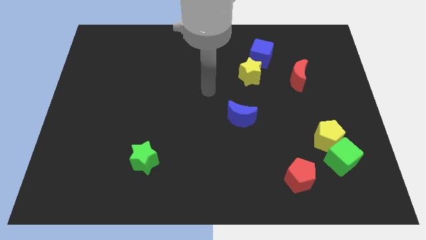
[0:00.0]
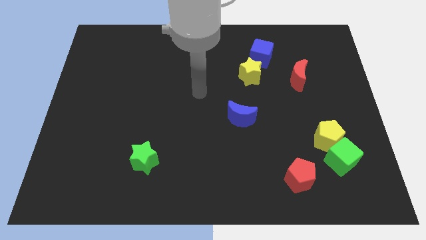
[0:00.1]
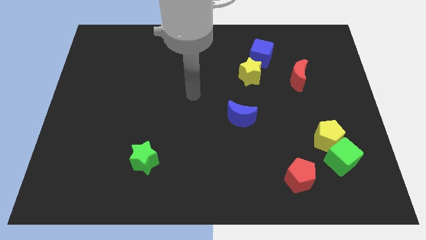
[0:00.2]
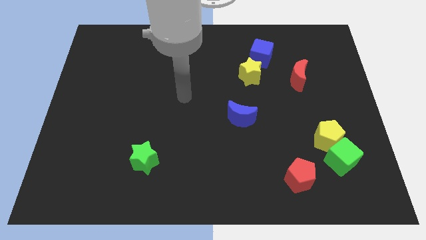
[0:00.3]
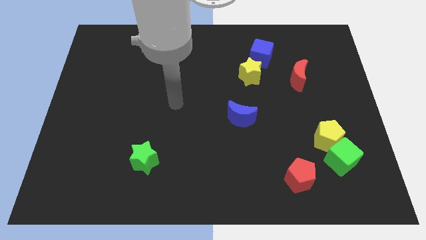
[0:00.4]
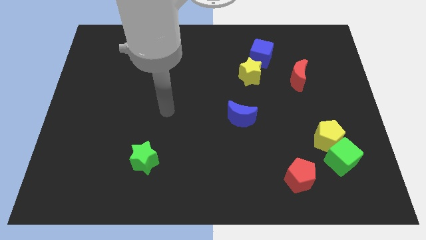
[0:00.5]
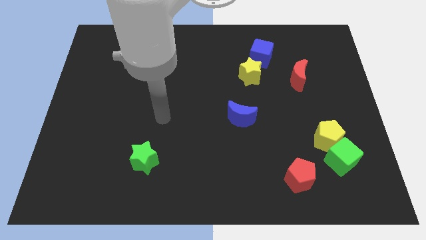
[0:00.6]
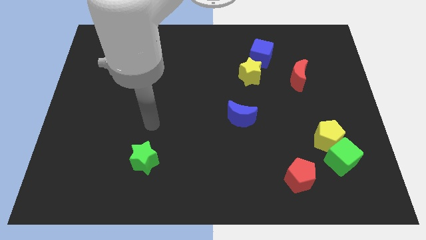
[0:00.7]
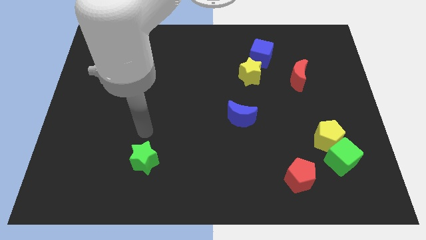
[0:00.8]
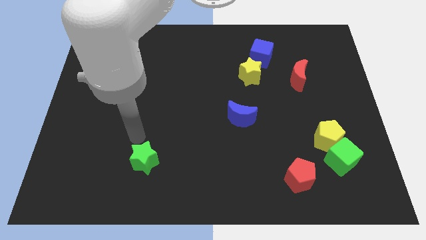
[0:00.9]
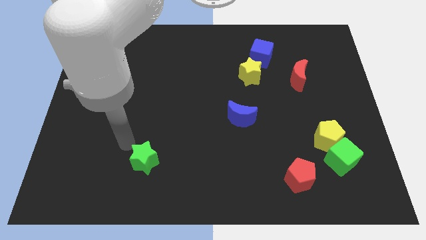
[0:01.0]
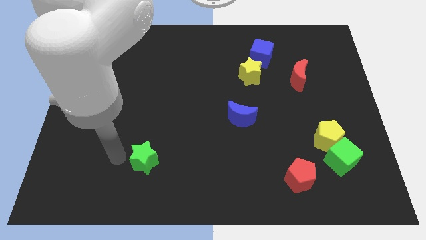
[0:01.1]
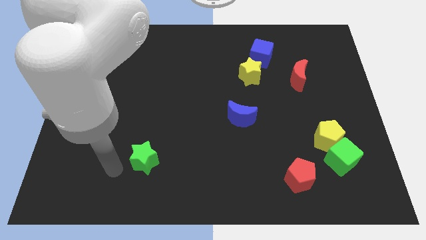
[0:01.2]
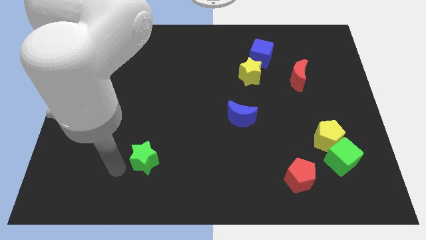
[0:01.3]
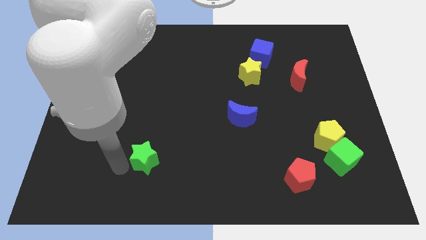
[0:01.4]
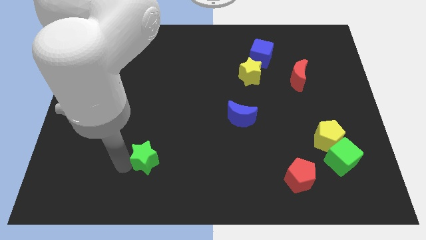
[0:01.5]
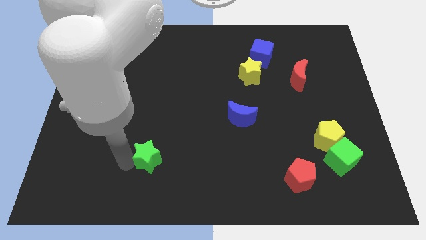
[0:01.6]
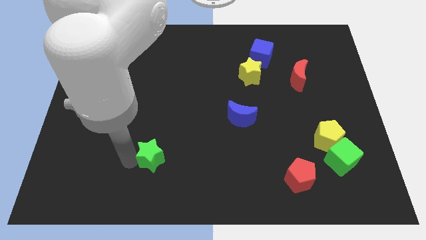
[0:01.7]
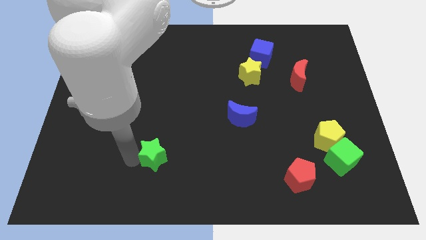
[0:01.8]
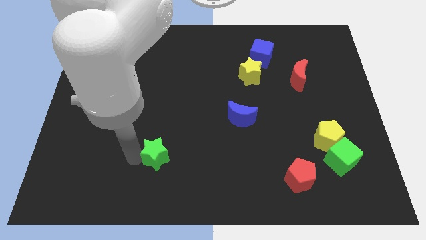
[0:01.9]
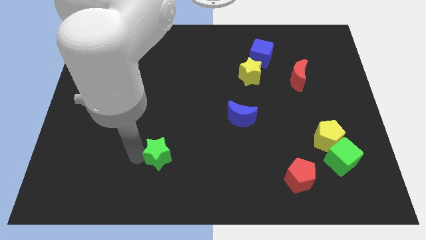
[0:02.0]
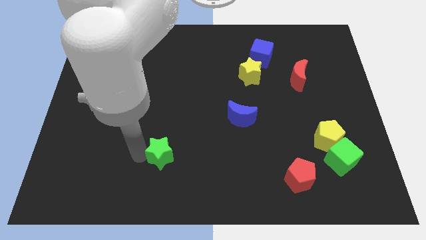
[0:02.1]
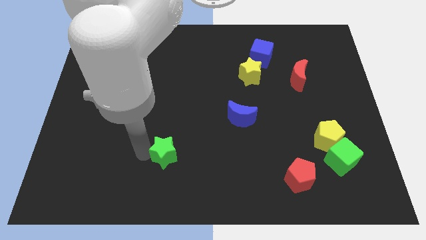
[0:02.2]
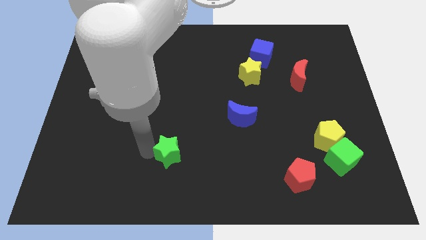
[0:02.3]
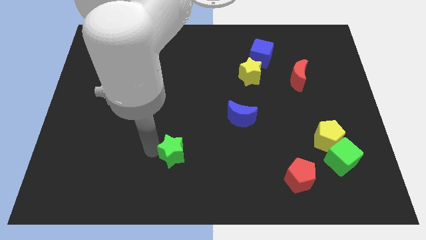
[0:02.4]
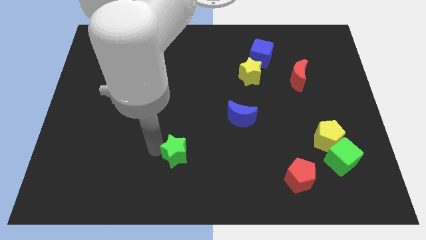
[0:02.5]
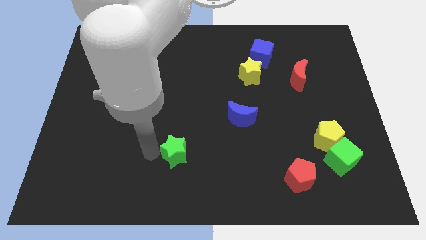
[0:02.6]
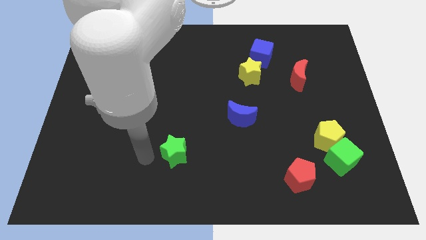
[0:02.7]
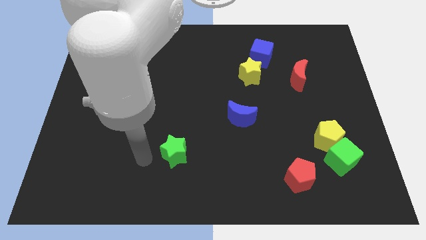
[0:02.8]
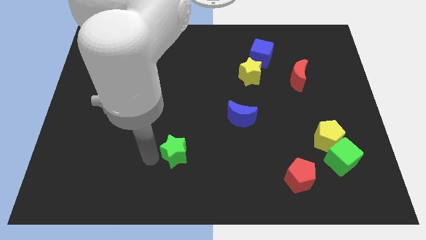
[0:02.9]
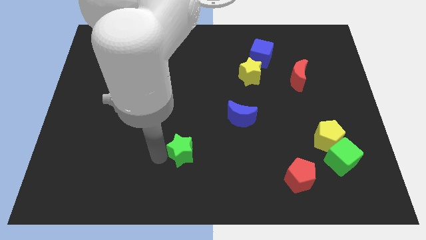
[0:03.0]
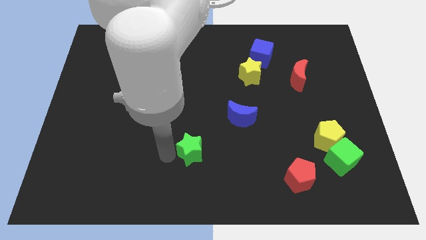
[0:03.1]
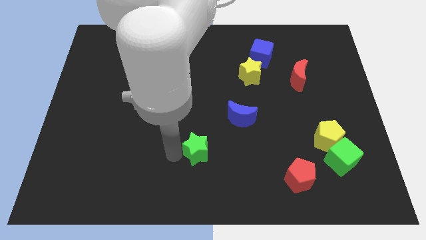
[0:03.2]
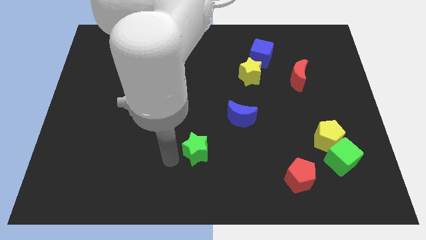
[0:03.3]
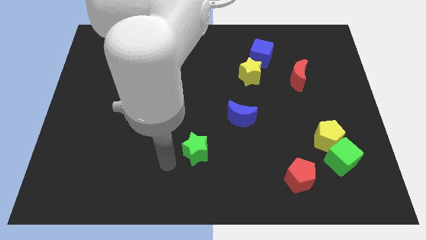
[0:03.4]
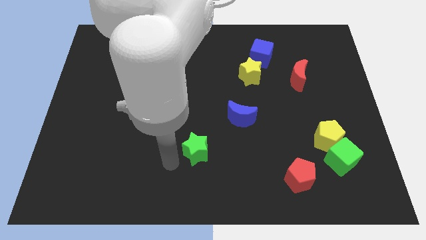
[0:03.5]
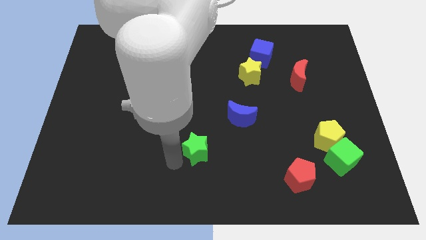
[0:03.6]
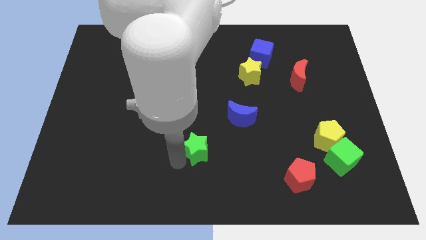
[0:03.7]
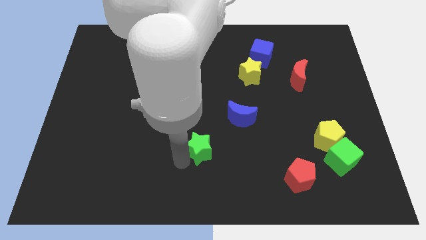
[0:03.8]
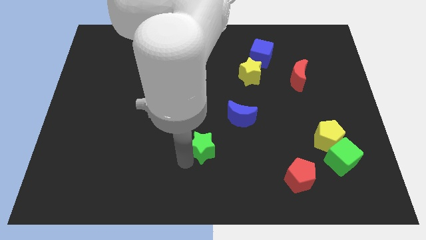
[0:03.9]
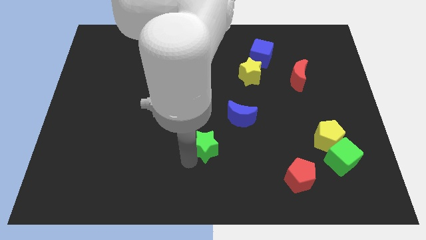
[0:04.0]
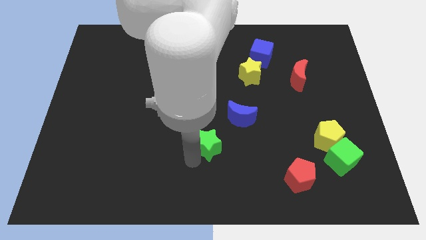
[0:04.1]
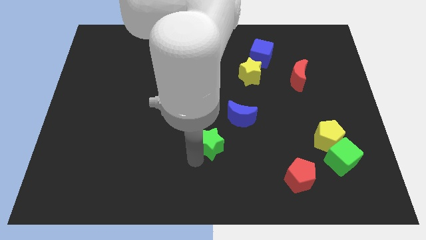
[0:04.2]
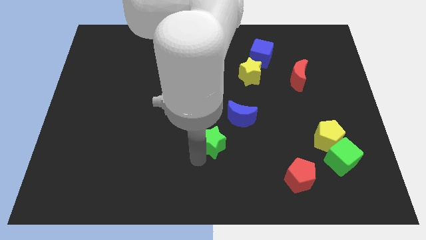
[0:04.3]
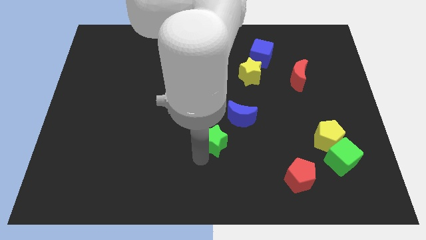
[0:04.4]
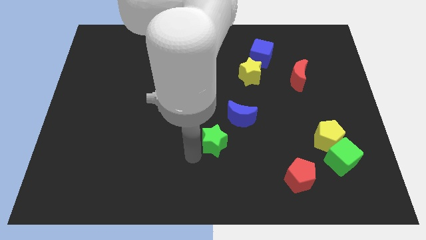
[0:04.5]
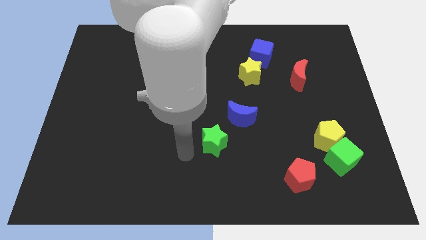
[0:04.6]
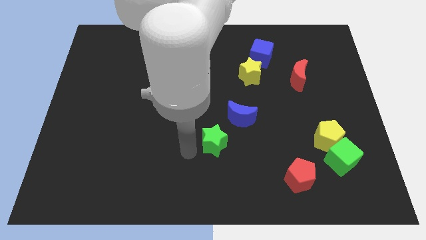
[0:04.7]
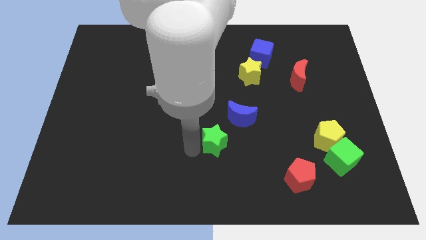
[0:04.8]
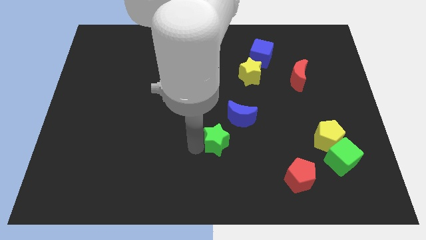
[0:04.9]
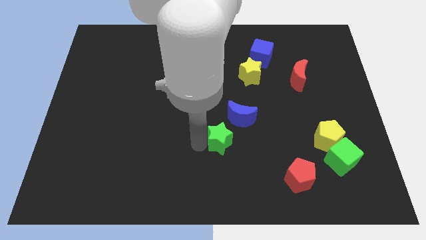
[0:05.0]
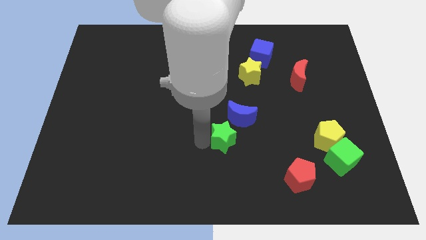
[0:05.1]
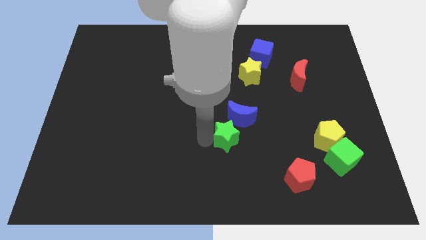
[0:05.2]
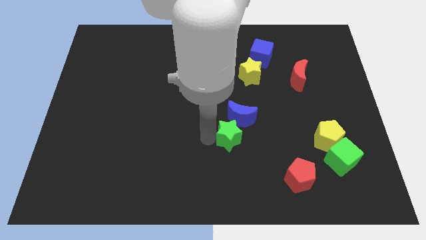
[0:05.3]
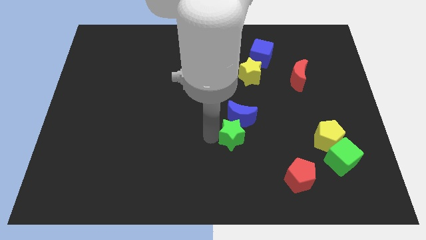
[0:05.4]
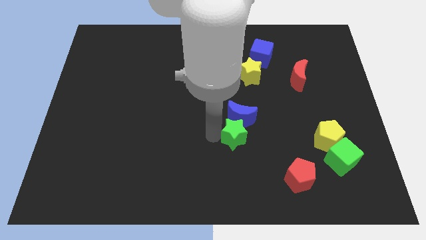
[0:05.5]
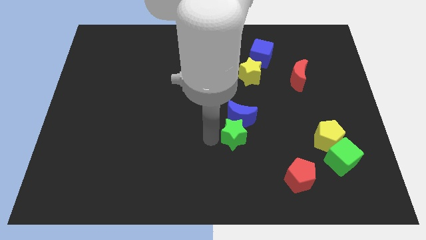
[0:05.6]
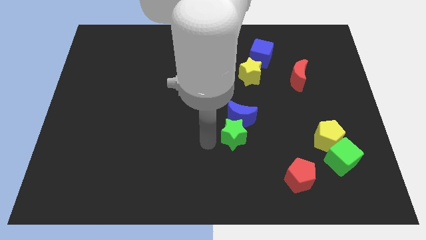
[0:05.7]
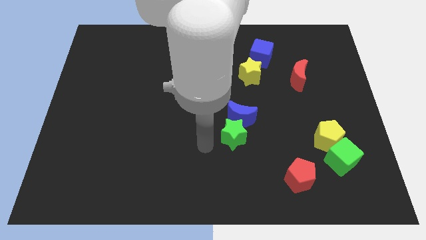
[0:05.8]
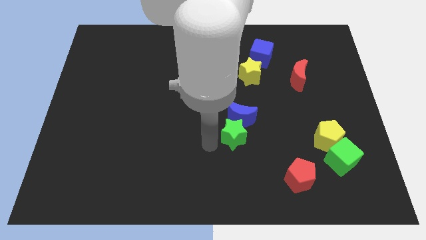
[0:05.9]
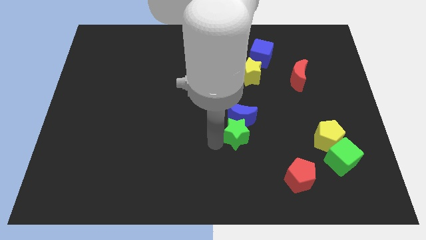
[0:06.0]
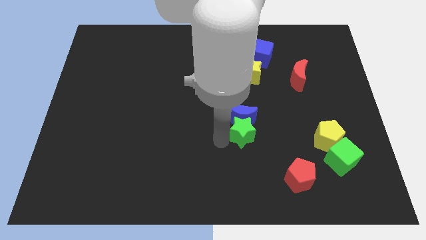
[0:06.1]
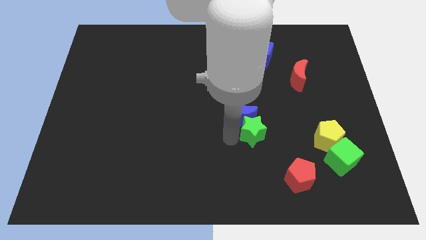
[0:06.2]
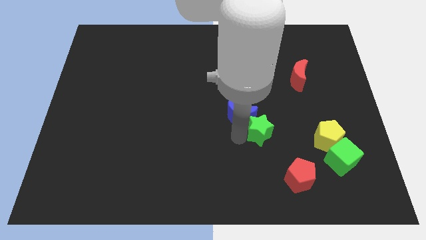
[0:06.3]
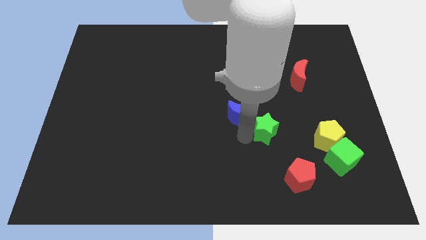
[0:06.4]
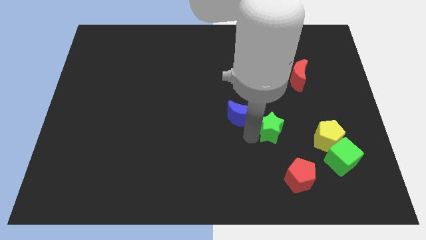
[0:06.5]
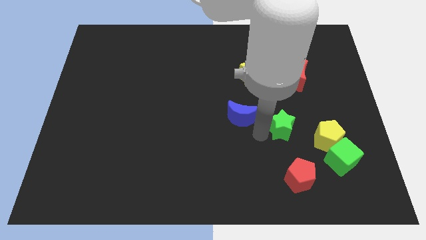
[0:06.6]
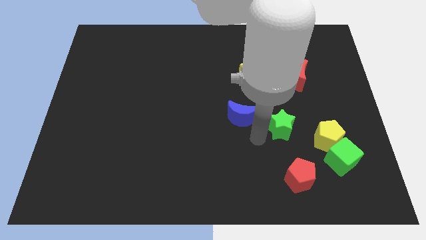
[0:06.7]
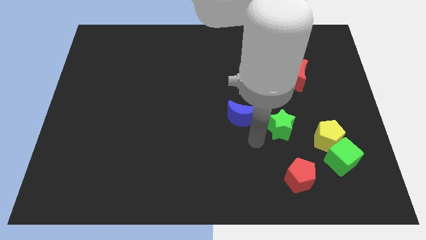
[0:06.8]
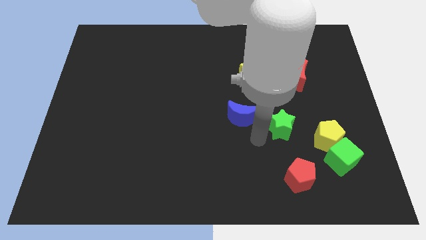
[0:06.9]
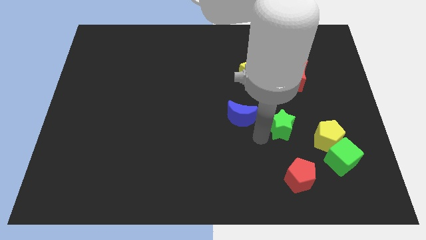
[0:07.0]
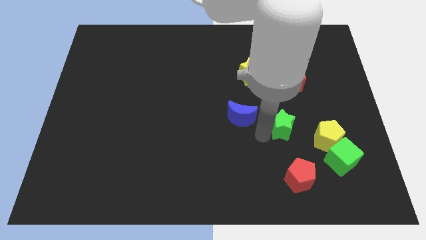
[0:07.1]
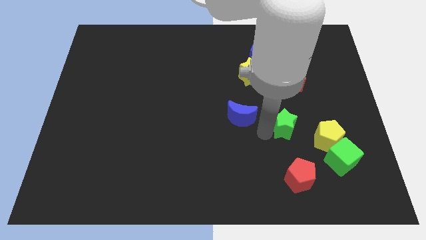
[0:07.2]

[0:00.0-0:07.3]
move the green star to the top left of the yellow pentagon
